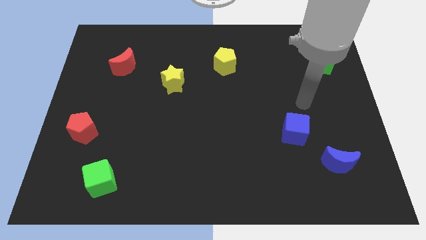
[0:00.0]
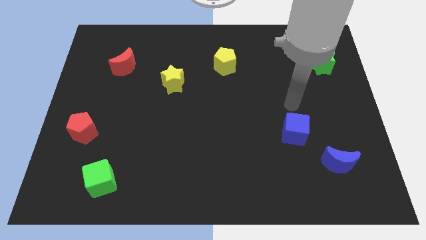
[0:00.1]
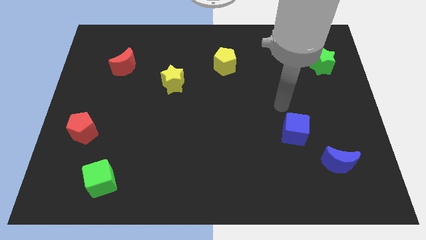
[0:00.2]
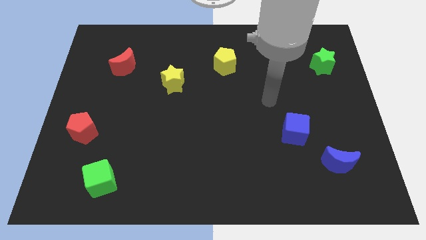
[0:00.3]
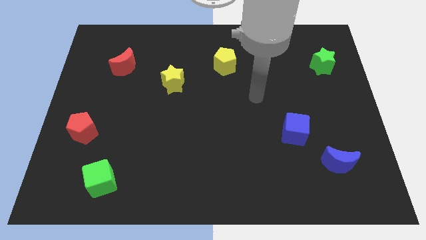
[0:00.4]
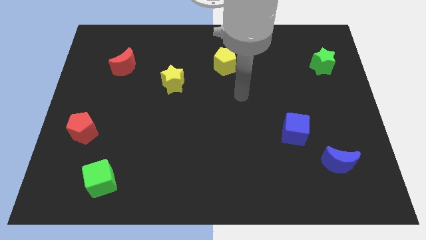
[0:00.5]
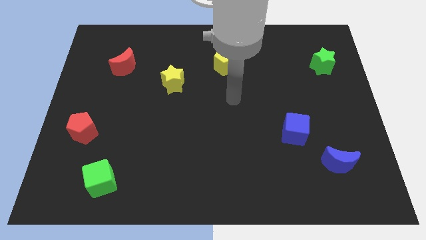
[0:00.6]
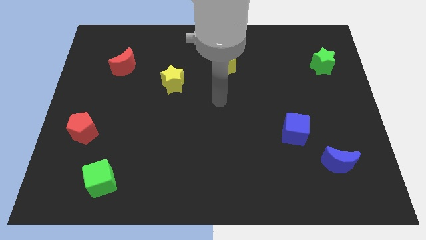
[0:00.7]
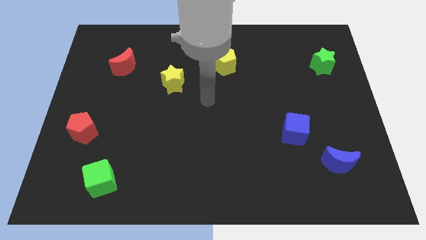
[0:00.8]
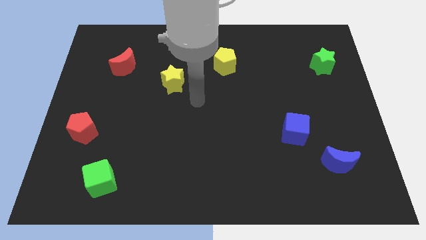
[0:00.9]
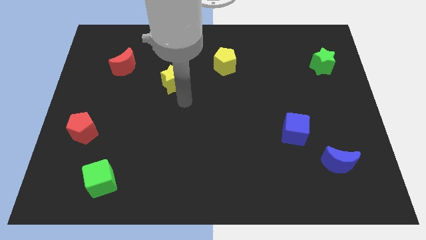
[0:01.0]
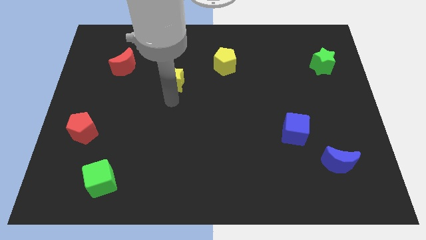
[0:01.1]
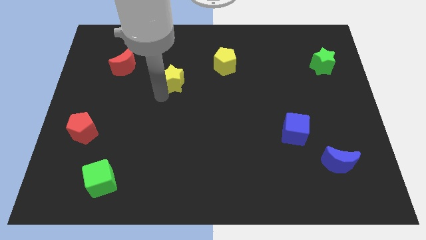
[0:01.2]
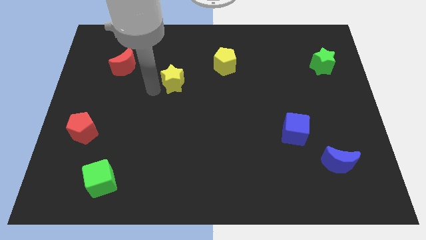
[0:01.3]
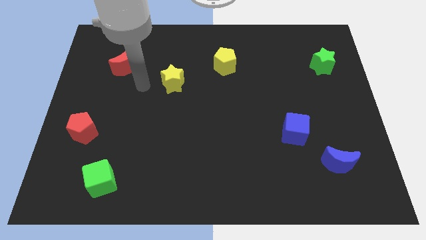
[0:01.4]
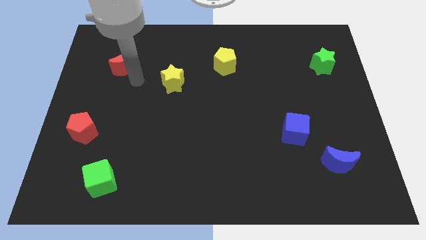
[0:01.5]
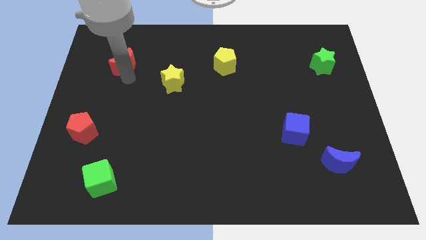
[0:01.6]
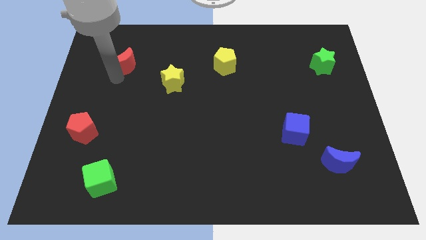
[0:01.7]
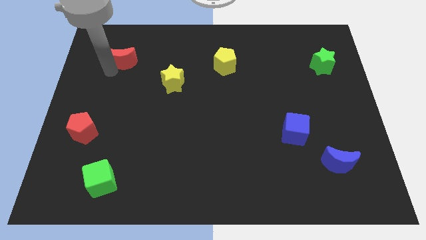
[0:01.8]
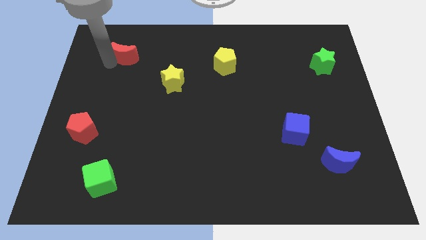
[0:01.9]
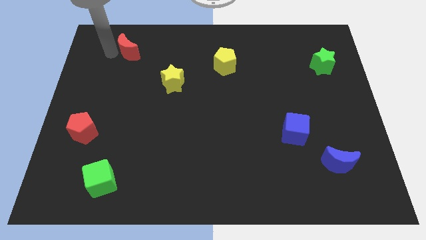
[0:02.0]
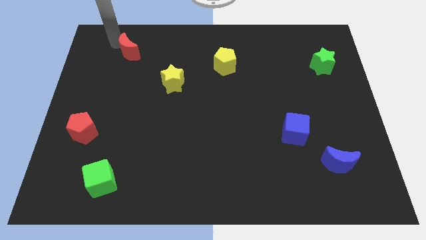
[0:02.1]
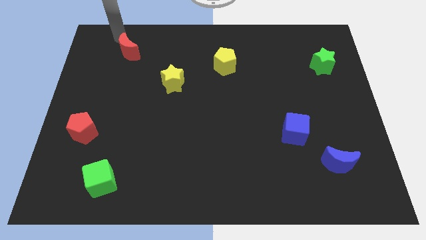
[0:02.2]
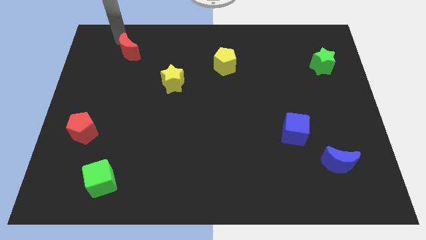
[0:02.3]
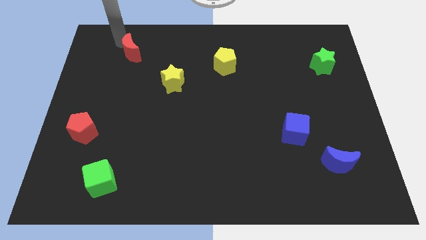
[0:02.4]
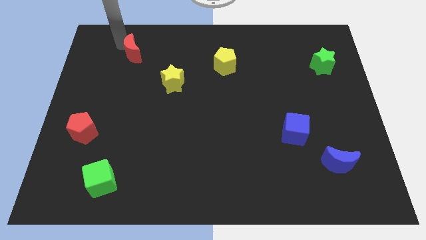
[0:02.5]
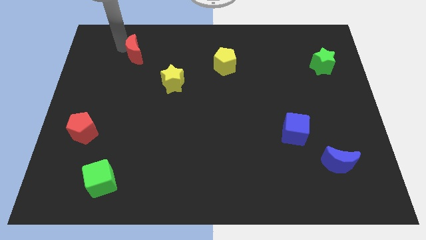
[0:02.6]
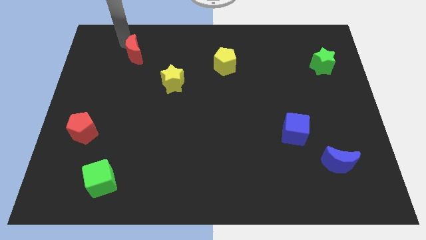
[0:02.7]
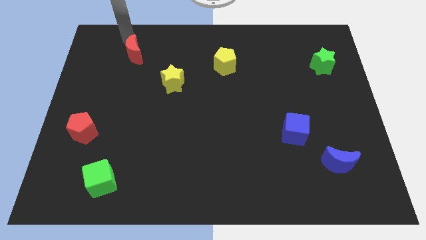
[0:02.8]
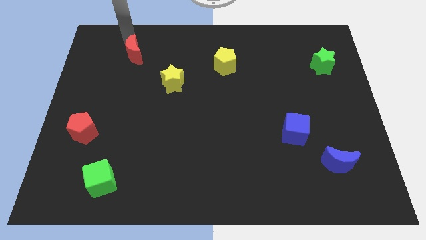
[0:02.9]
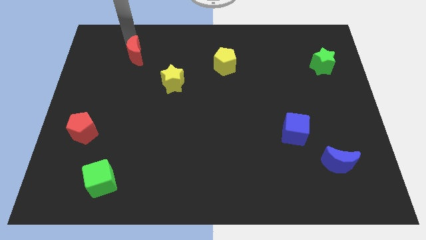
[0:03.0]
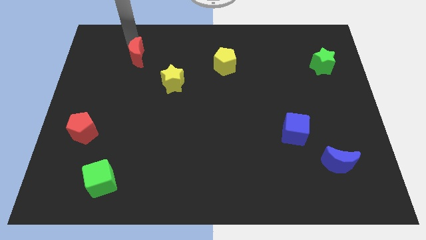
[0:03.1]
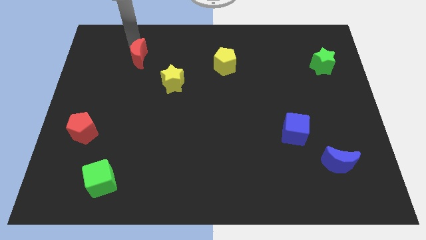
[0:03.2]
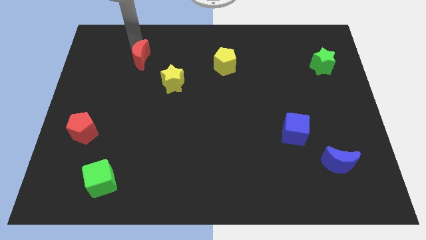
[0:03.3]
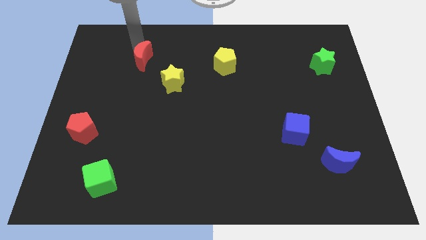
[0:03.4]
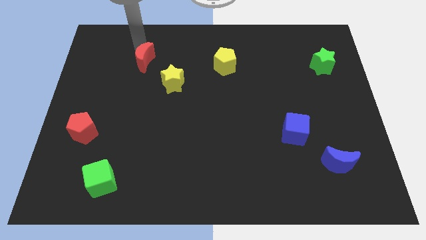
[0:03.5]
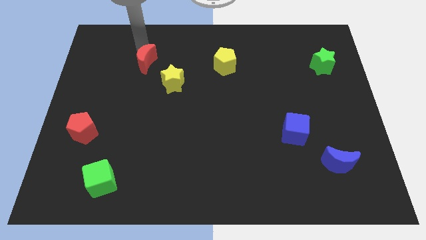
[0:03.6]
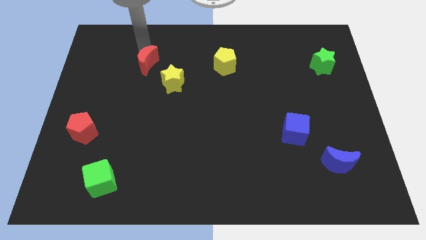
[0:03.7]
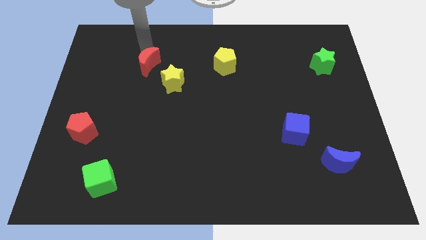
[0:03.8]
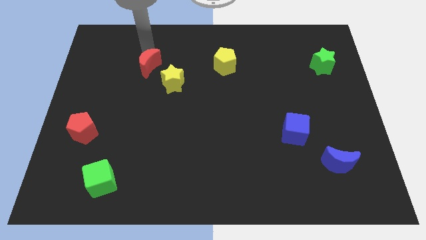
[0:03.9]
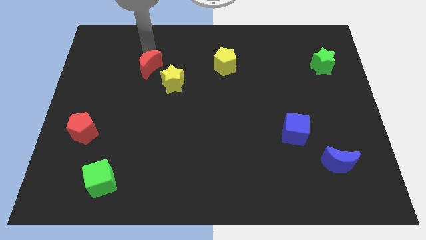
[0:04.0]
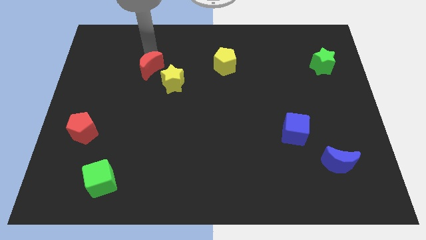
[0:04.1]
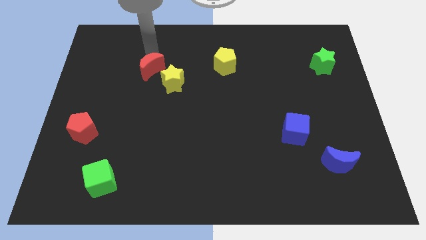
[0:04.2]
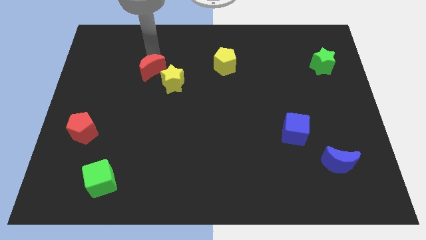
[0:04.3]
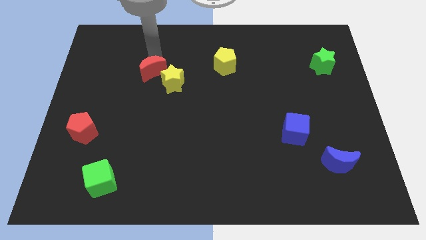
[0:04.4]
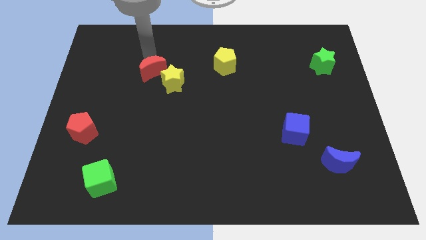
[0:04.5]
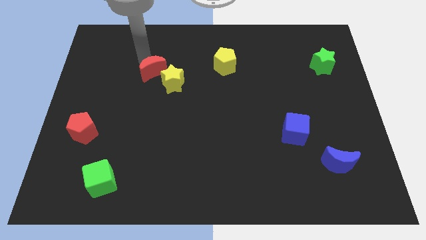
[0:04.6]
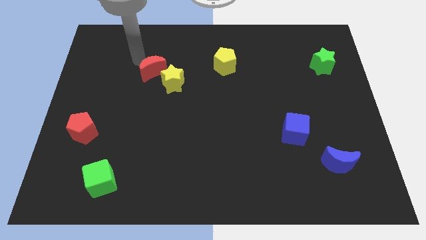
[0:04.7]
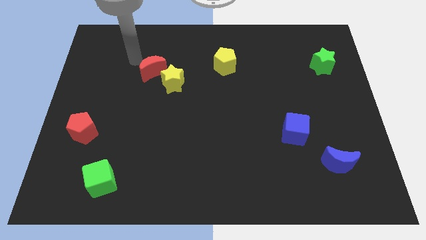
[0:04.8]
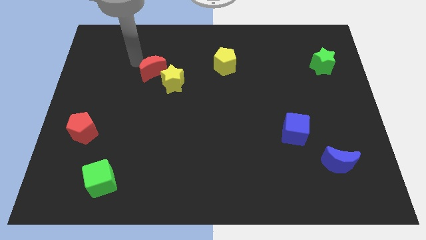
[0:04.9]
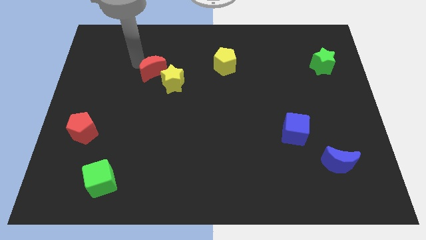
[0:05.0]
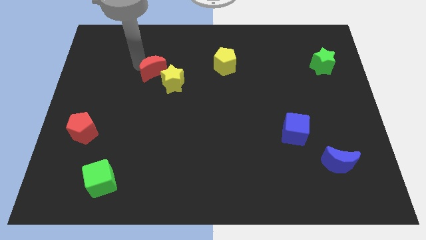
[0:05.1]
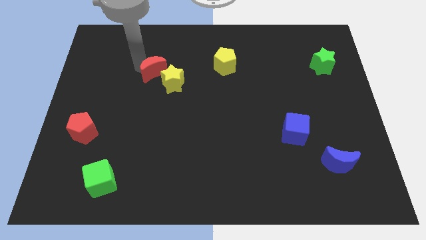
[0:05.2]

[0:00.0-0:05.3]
move the red moon next to the yellow star

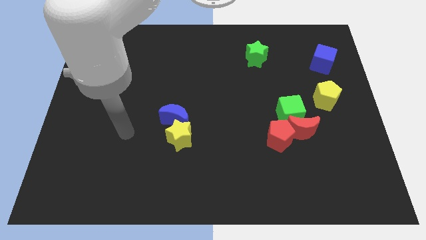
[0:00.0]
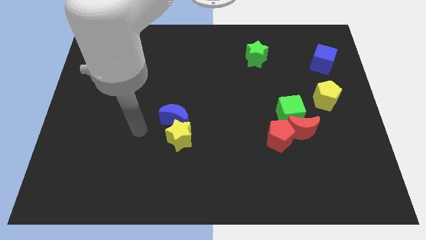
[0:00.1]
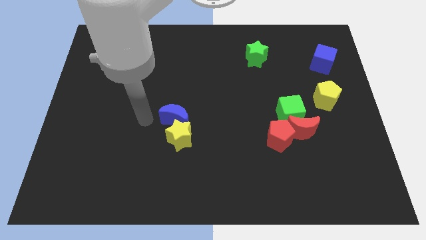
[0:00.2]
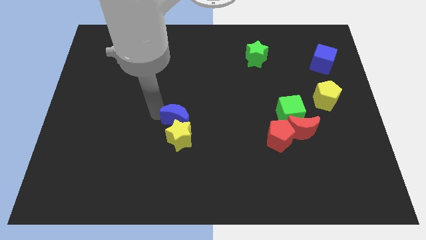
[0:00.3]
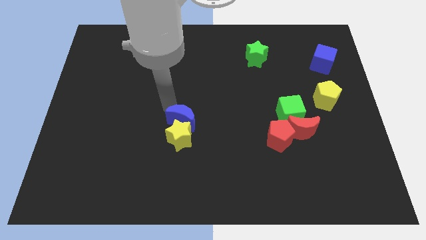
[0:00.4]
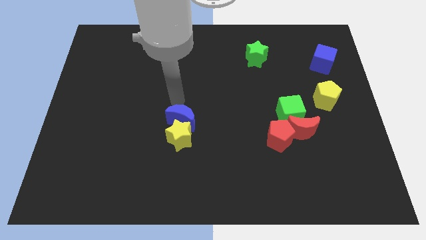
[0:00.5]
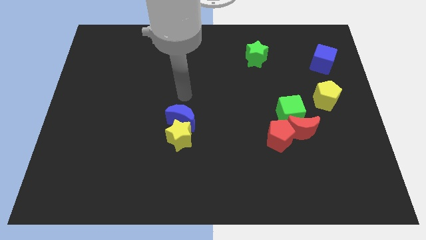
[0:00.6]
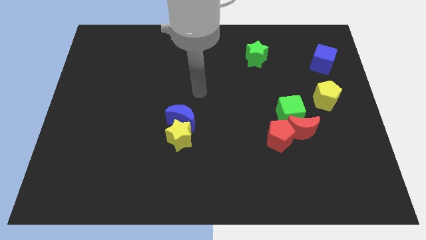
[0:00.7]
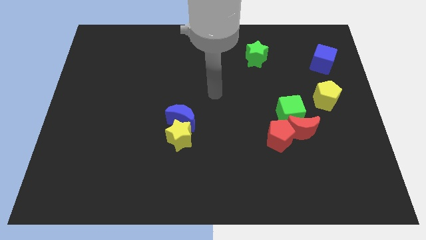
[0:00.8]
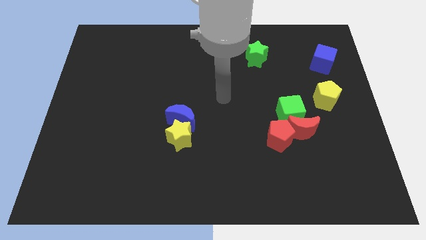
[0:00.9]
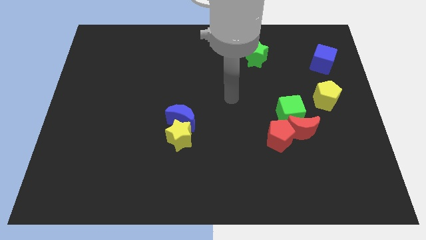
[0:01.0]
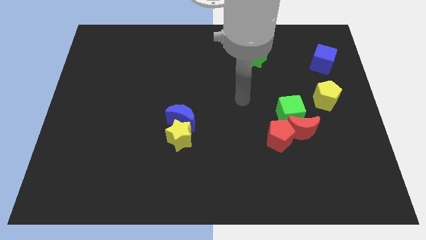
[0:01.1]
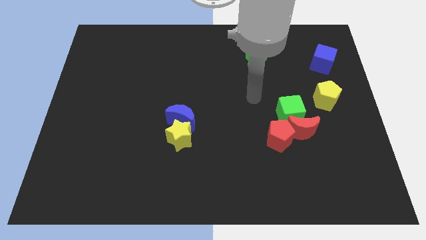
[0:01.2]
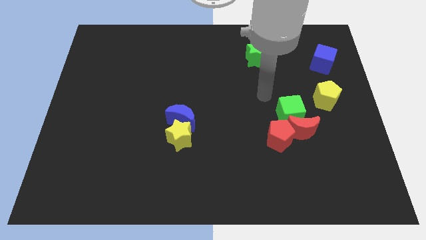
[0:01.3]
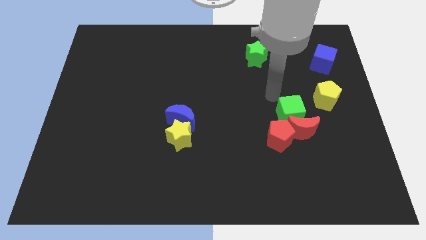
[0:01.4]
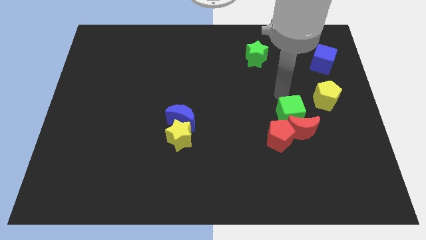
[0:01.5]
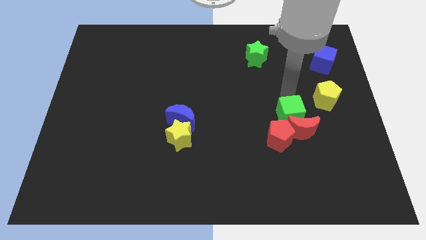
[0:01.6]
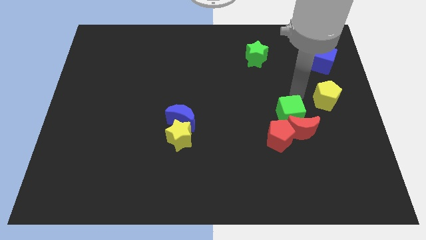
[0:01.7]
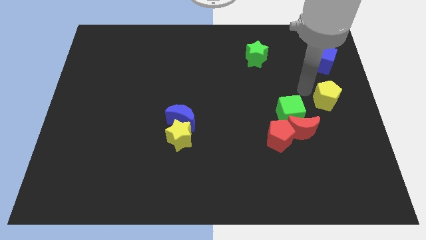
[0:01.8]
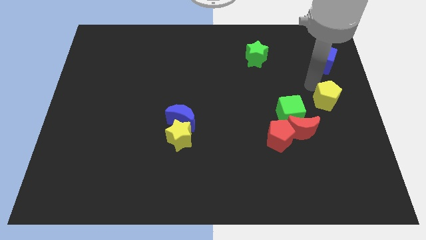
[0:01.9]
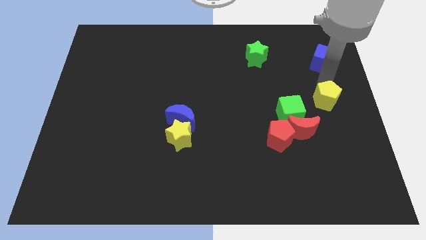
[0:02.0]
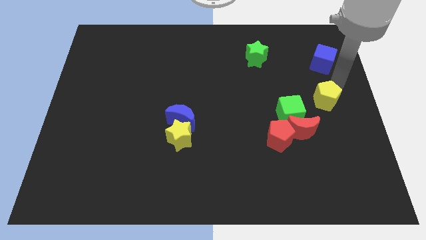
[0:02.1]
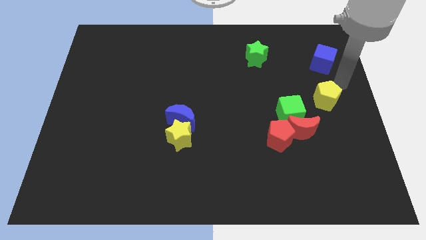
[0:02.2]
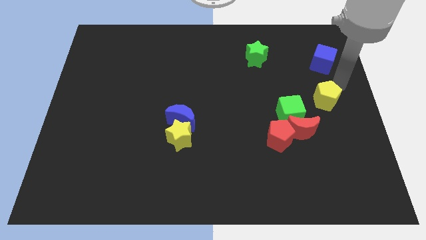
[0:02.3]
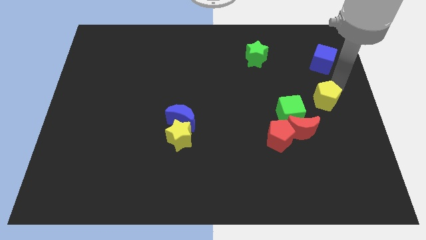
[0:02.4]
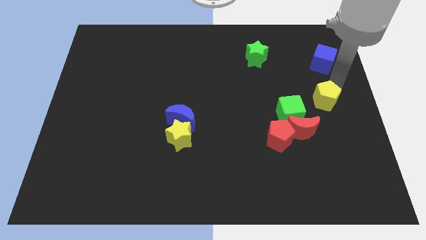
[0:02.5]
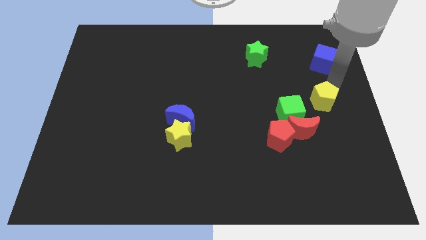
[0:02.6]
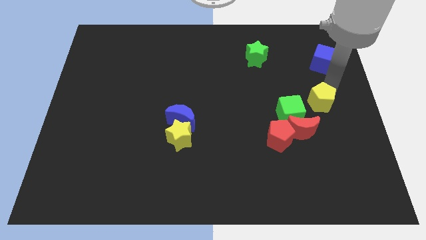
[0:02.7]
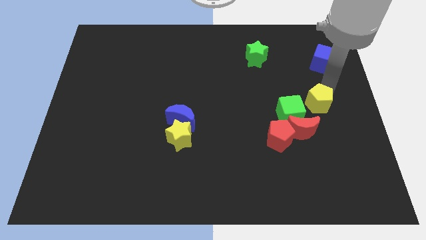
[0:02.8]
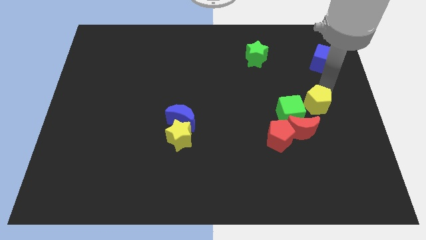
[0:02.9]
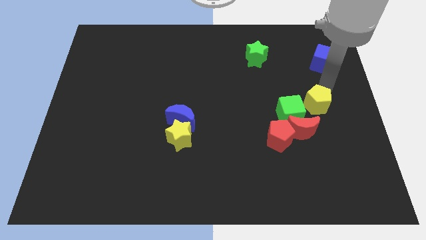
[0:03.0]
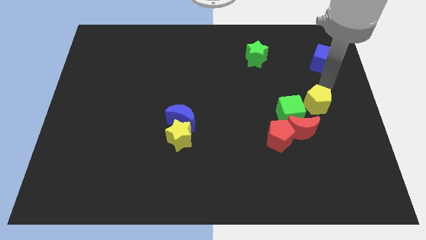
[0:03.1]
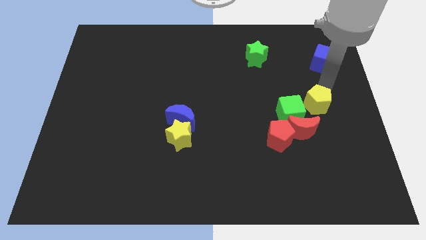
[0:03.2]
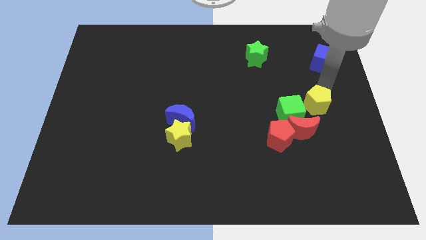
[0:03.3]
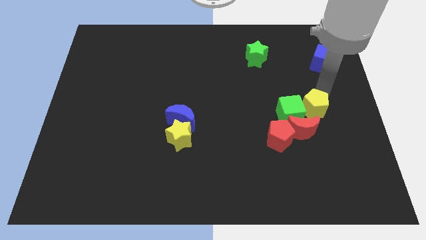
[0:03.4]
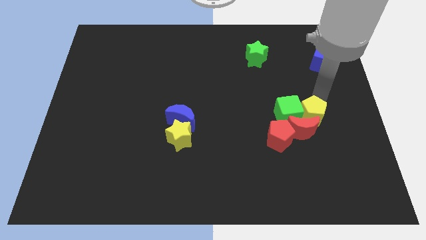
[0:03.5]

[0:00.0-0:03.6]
put the yellow pentagon close to the red moon
